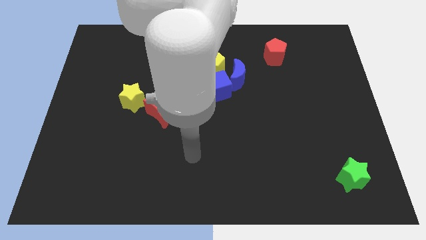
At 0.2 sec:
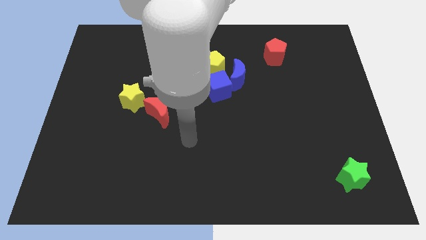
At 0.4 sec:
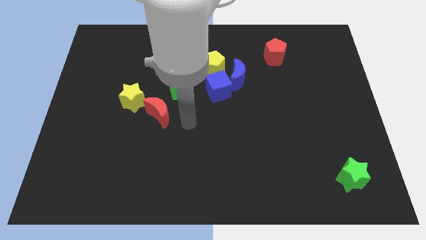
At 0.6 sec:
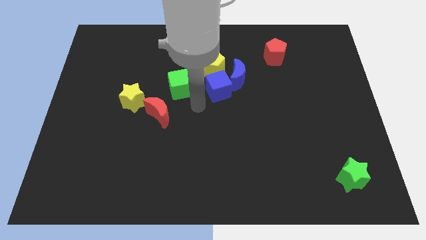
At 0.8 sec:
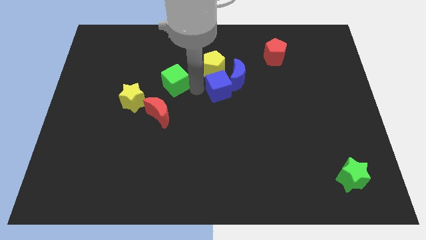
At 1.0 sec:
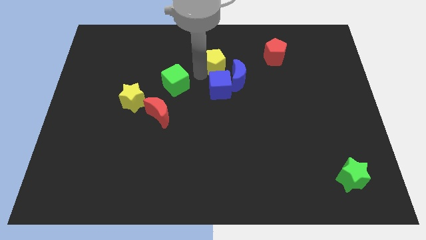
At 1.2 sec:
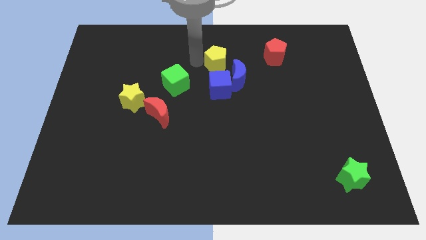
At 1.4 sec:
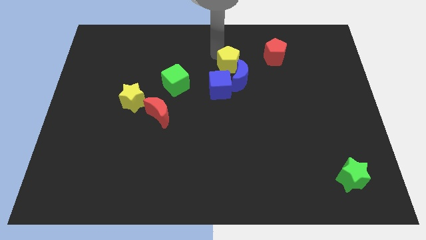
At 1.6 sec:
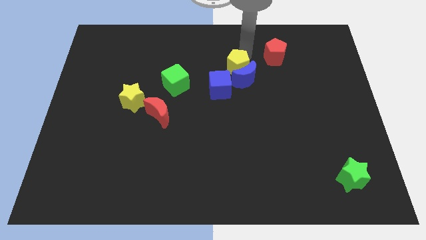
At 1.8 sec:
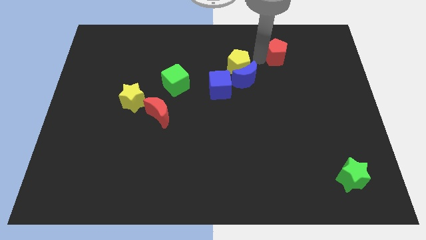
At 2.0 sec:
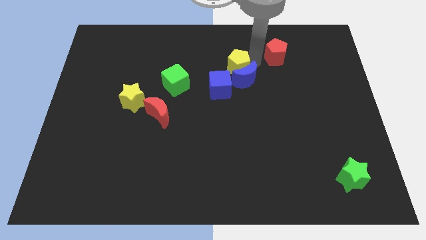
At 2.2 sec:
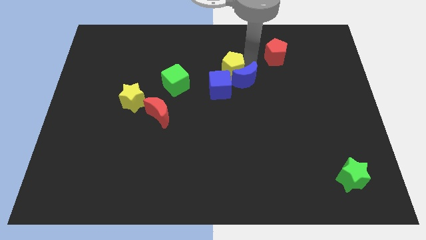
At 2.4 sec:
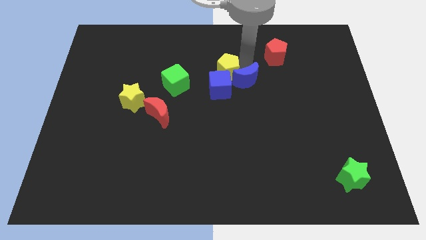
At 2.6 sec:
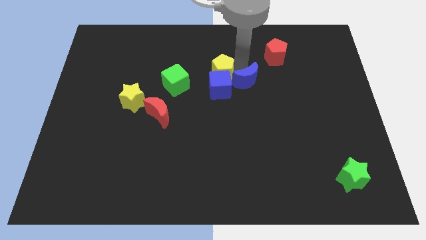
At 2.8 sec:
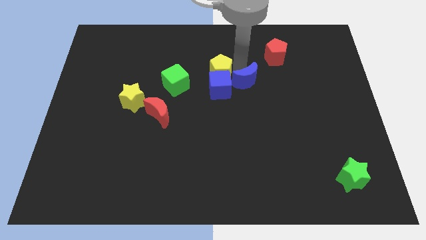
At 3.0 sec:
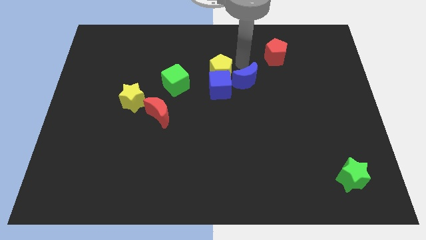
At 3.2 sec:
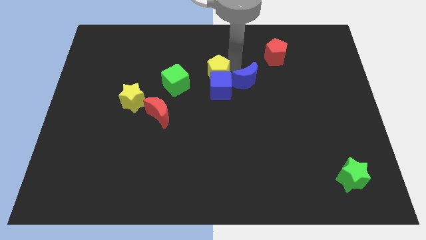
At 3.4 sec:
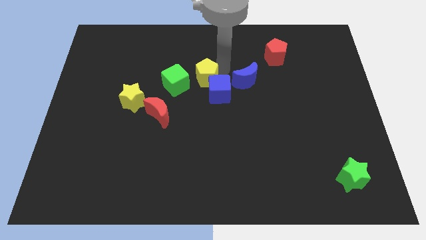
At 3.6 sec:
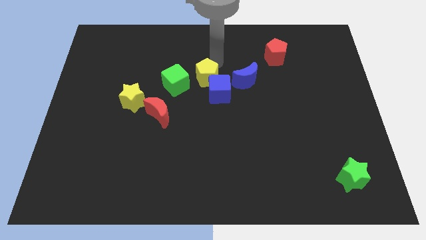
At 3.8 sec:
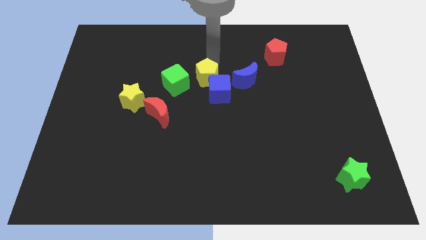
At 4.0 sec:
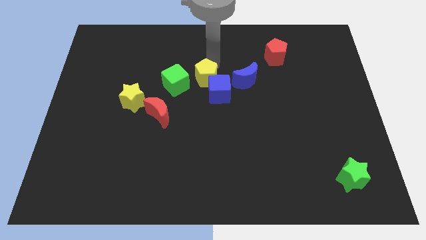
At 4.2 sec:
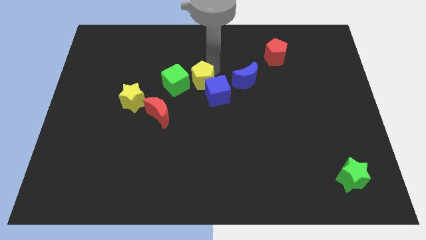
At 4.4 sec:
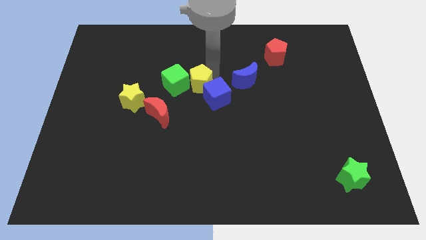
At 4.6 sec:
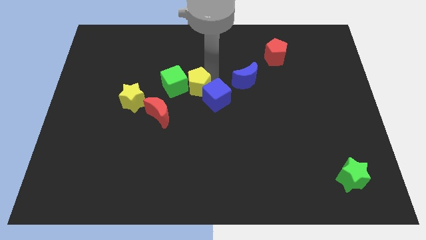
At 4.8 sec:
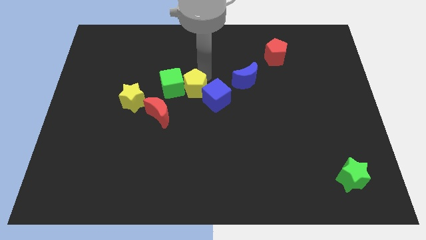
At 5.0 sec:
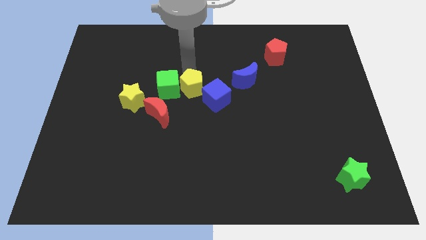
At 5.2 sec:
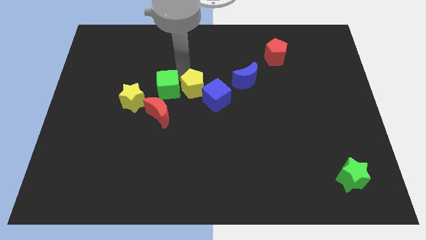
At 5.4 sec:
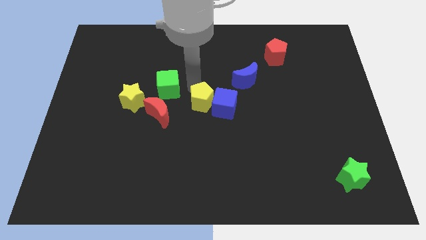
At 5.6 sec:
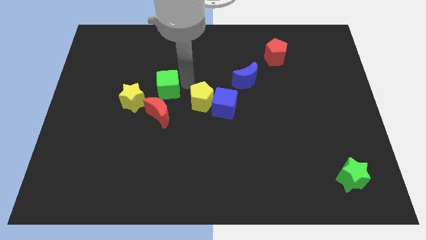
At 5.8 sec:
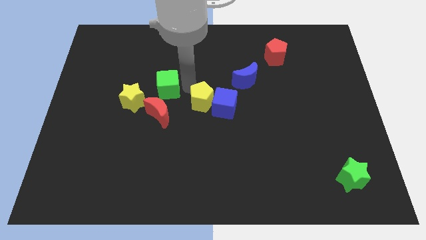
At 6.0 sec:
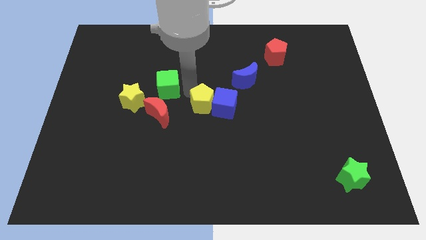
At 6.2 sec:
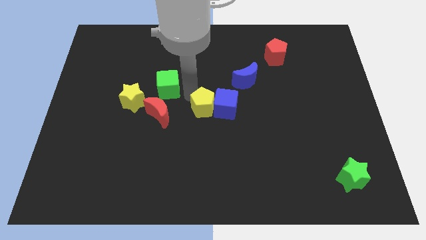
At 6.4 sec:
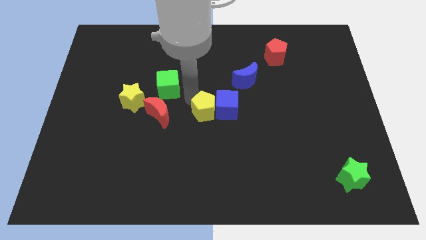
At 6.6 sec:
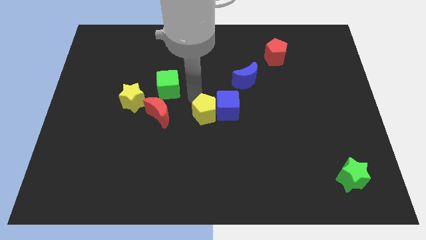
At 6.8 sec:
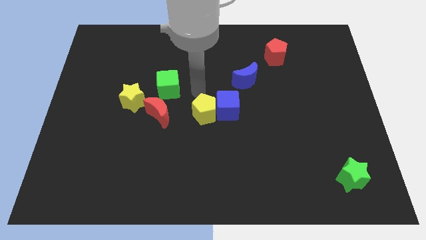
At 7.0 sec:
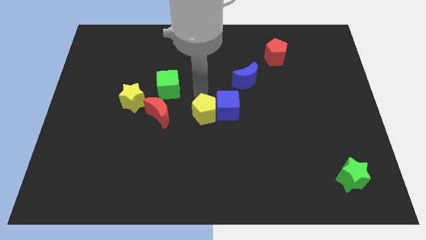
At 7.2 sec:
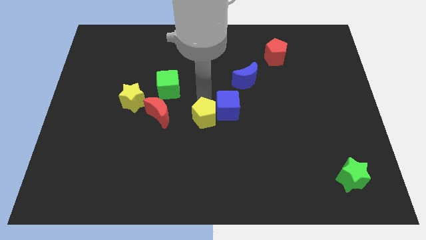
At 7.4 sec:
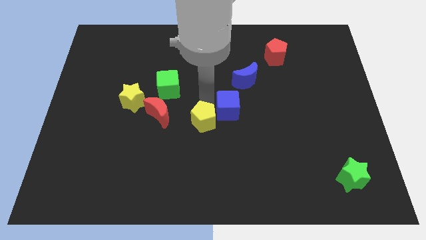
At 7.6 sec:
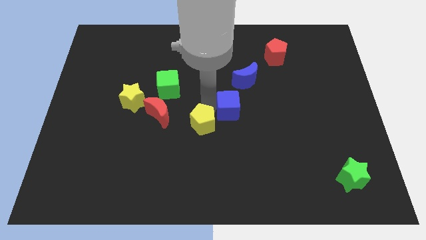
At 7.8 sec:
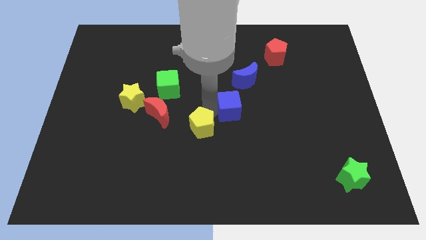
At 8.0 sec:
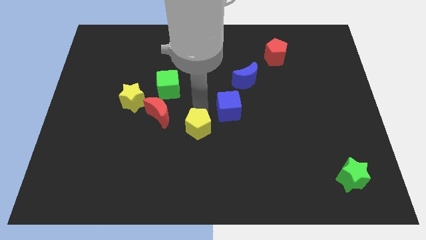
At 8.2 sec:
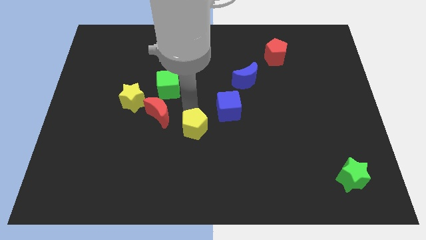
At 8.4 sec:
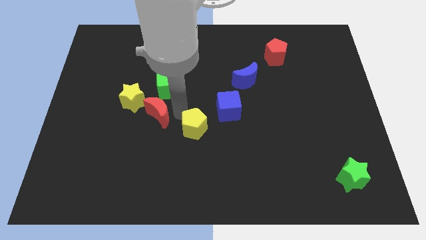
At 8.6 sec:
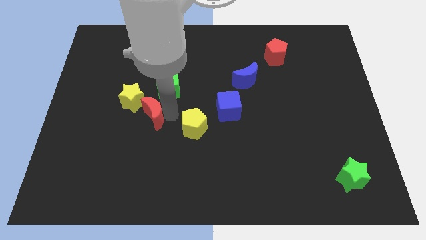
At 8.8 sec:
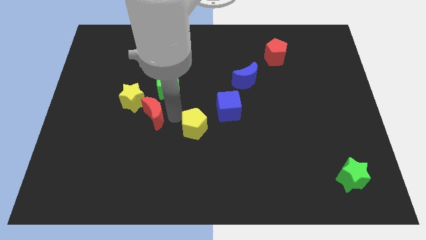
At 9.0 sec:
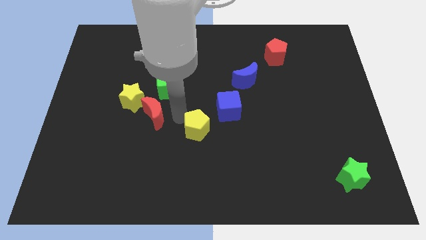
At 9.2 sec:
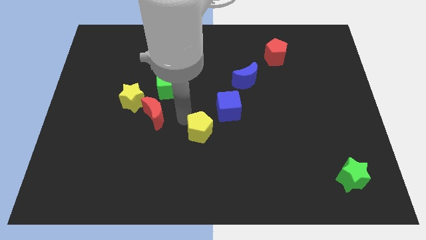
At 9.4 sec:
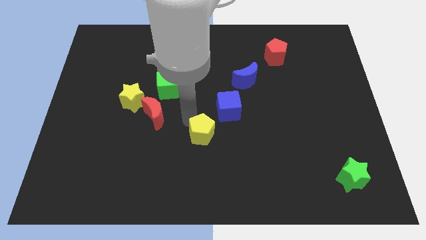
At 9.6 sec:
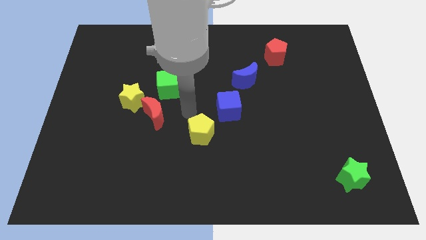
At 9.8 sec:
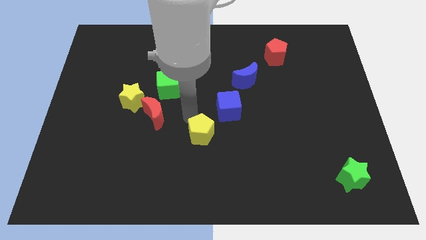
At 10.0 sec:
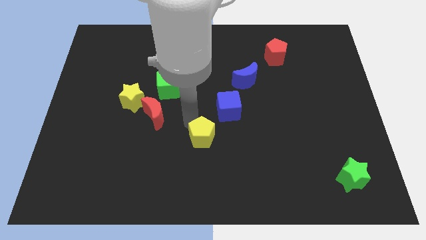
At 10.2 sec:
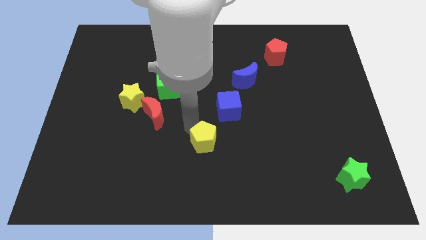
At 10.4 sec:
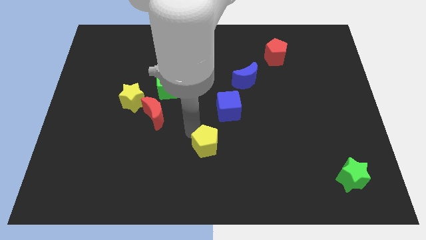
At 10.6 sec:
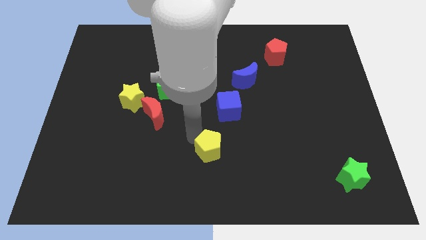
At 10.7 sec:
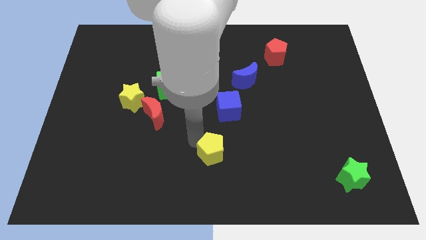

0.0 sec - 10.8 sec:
put the yellow pentagon to the bottom side
